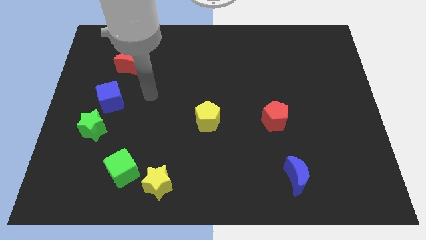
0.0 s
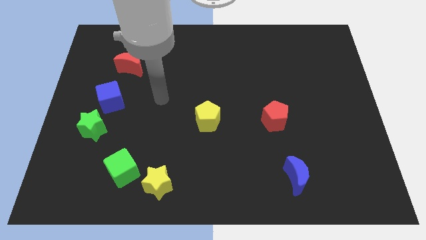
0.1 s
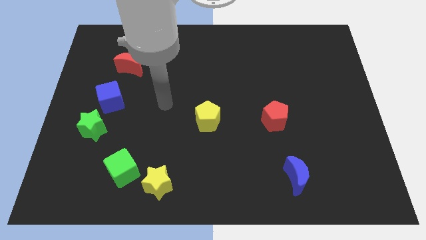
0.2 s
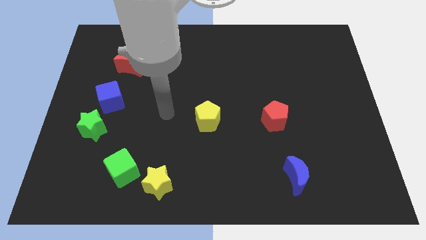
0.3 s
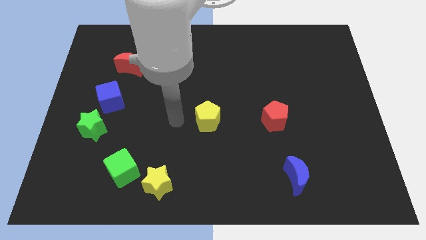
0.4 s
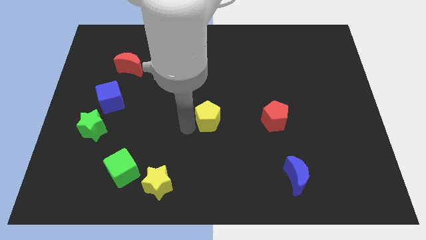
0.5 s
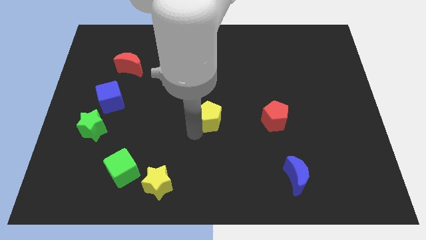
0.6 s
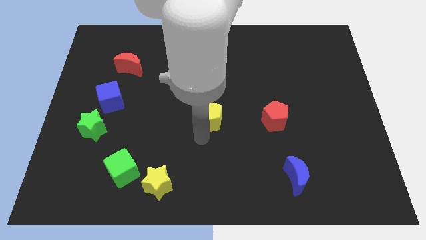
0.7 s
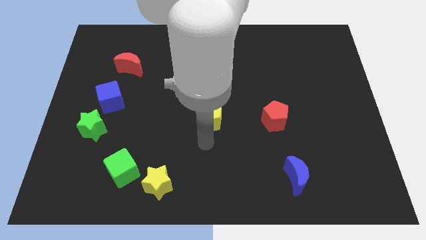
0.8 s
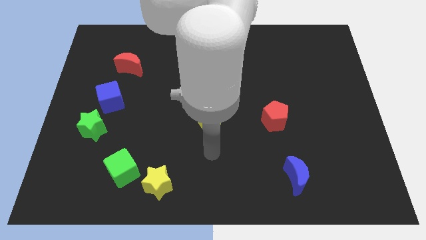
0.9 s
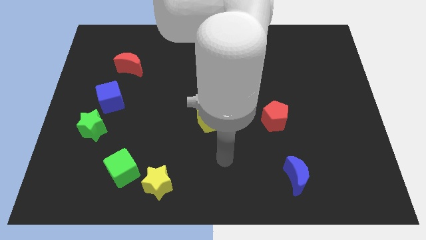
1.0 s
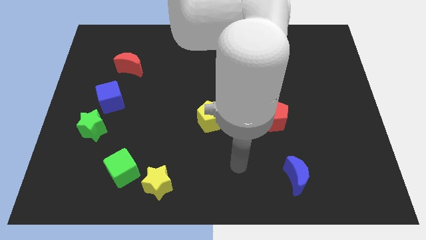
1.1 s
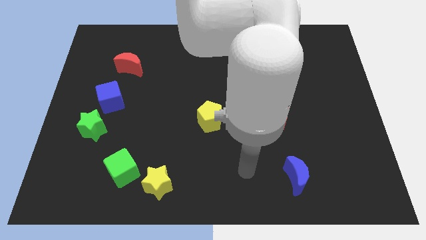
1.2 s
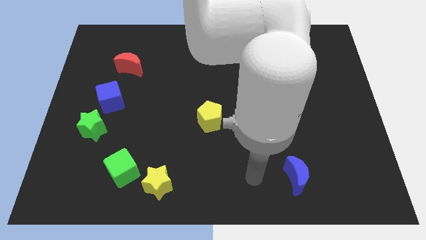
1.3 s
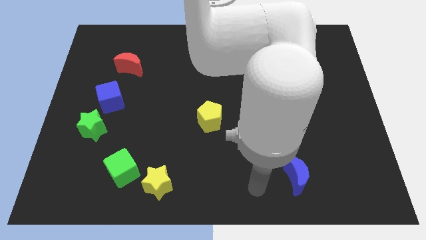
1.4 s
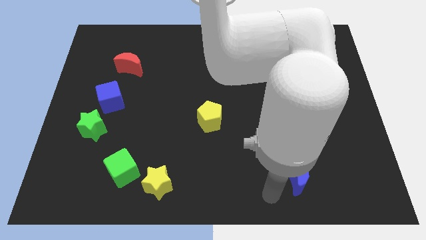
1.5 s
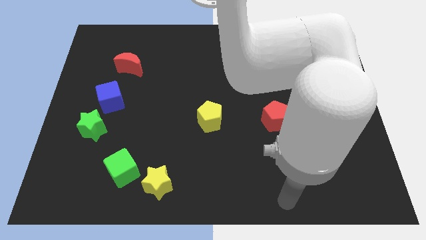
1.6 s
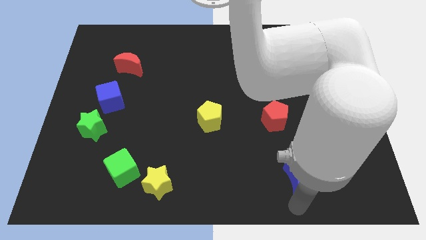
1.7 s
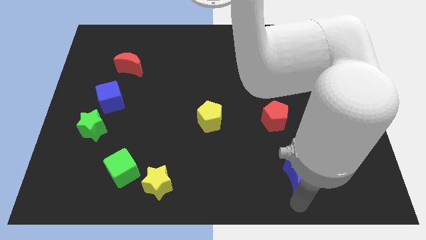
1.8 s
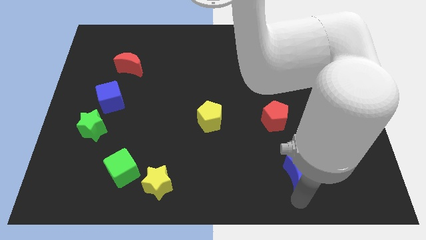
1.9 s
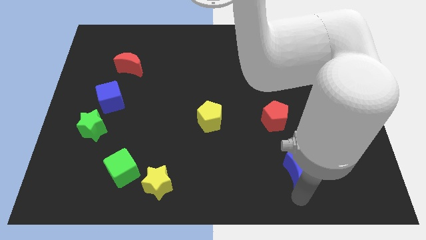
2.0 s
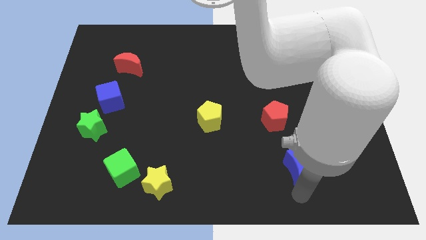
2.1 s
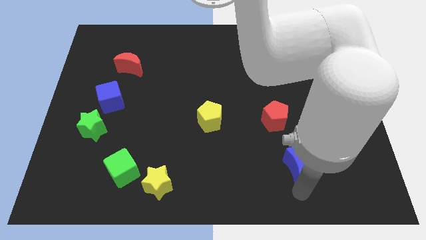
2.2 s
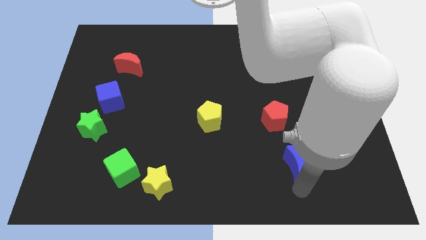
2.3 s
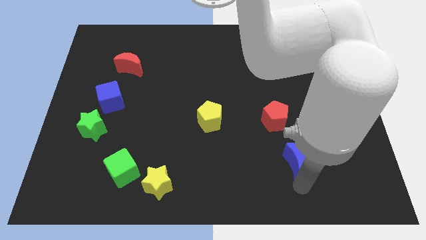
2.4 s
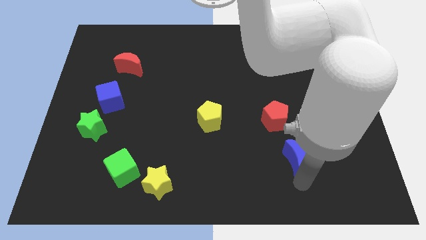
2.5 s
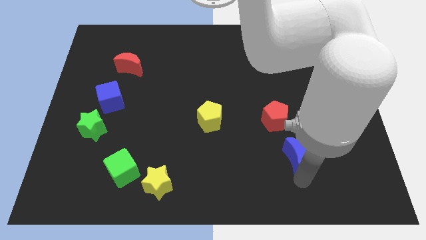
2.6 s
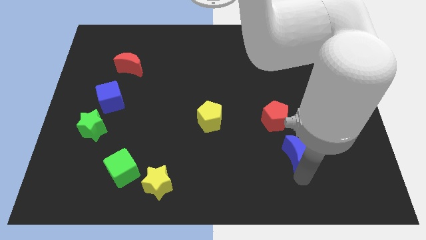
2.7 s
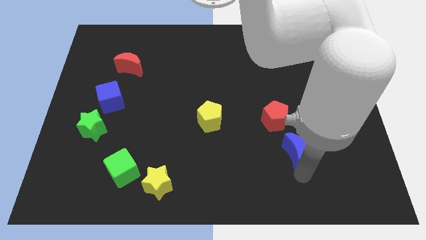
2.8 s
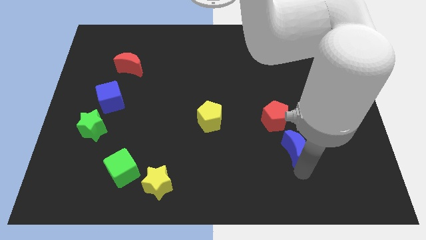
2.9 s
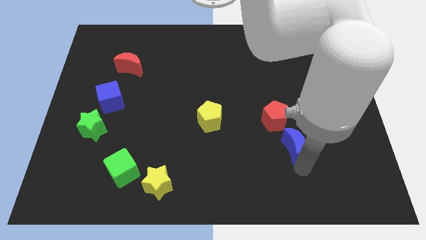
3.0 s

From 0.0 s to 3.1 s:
push the blue moon upwards somewhat

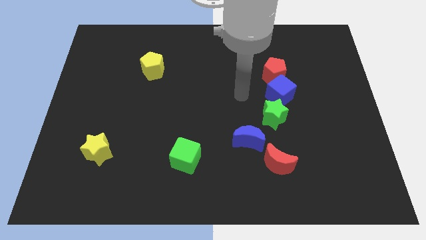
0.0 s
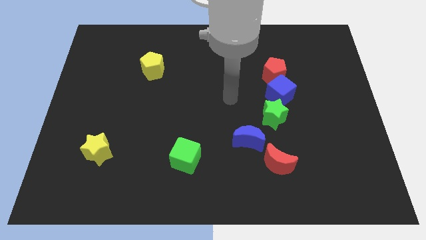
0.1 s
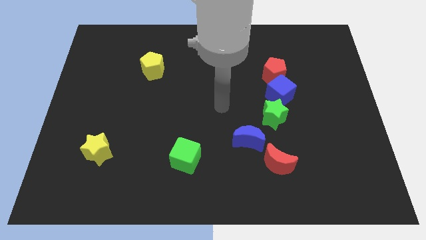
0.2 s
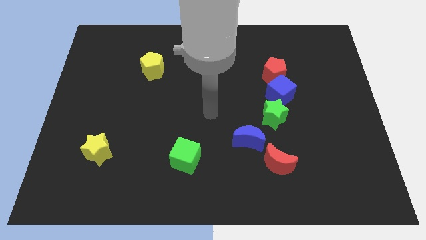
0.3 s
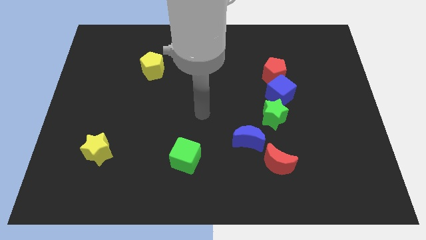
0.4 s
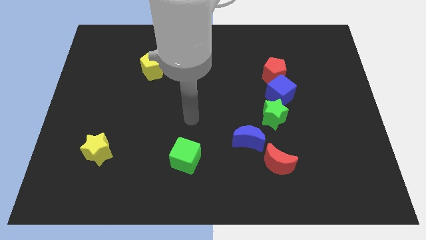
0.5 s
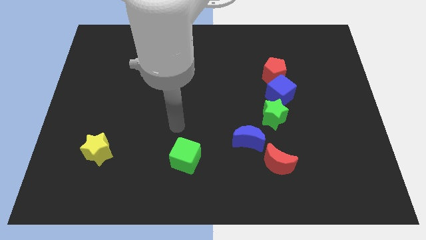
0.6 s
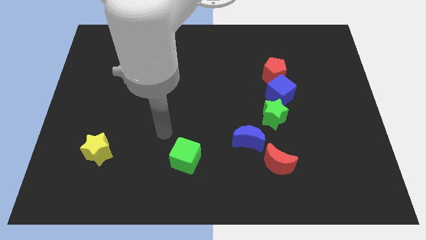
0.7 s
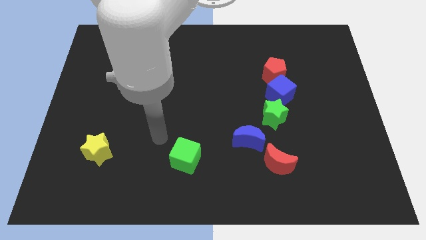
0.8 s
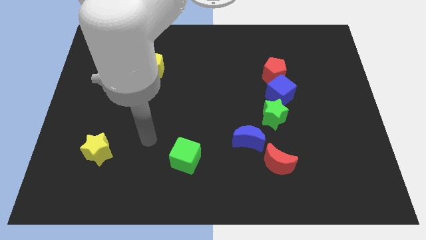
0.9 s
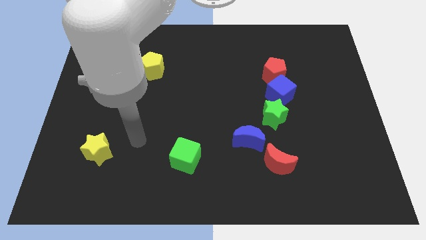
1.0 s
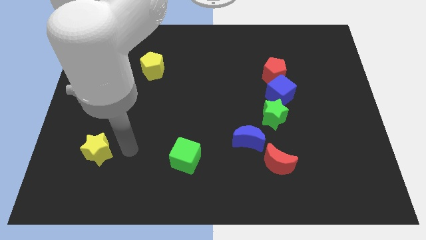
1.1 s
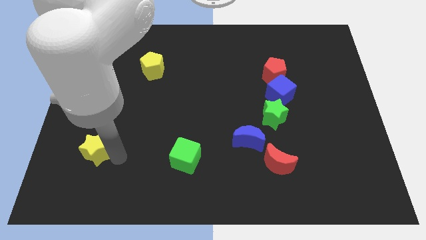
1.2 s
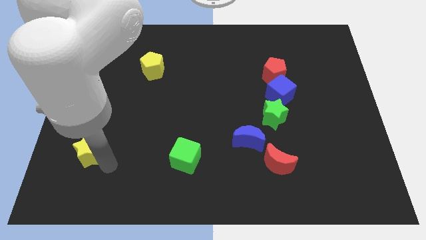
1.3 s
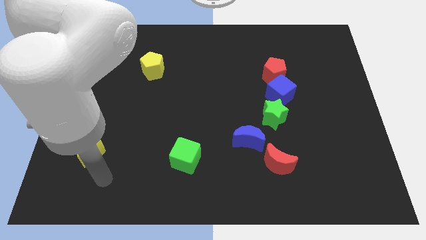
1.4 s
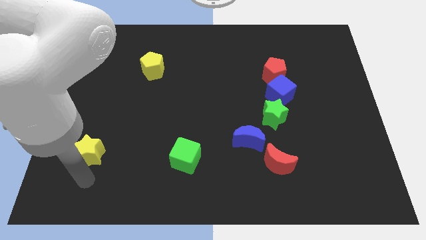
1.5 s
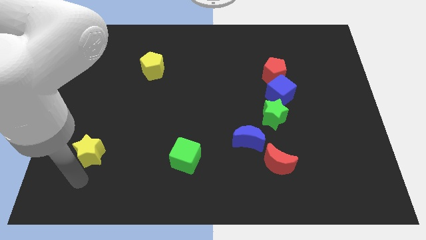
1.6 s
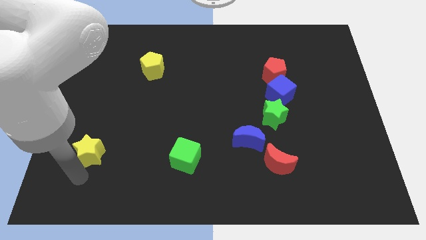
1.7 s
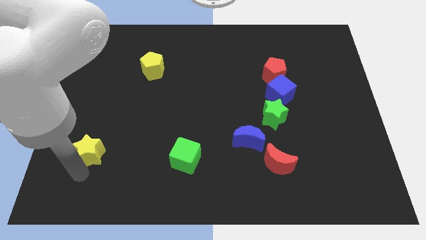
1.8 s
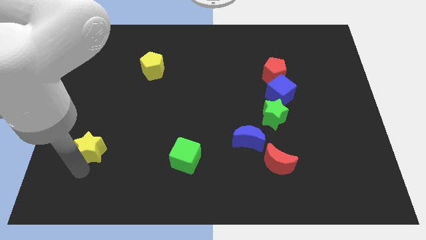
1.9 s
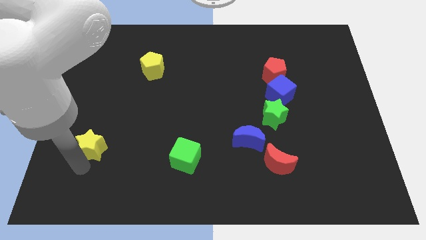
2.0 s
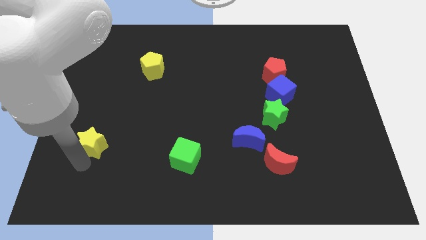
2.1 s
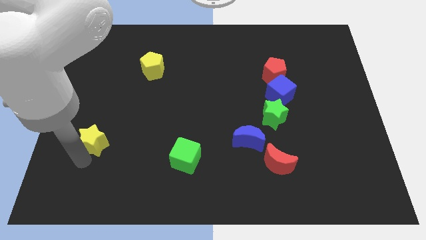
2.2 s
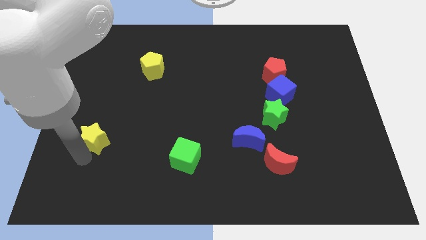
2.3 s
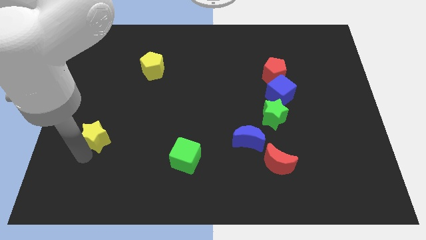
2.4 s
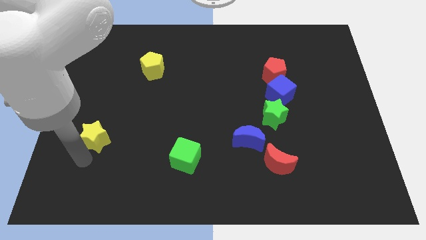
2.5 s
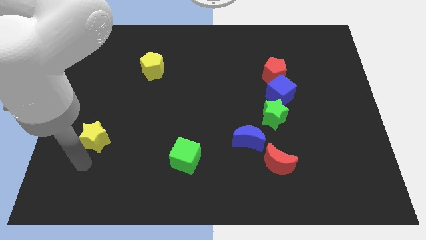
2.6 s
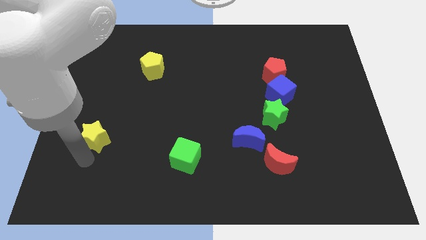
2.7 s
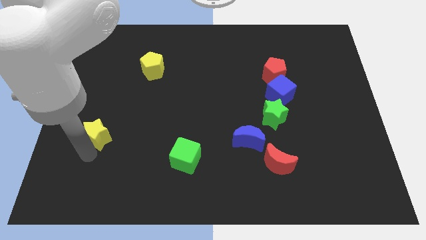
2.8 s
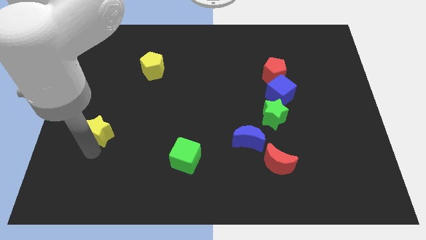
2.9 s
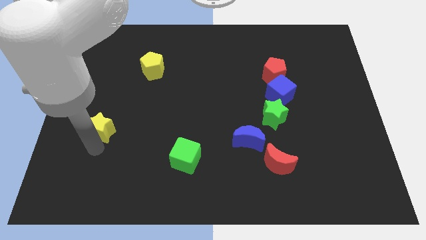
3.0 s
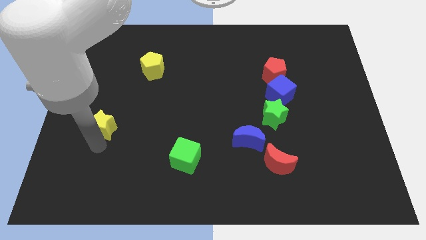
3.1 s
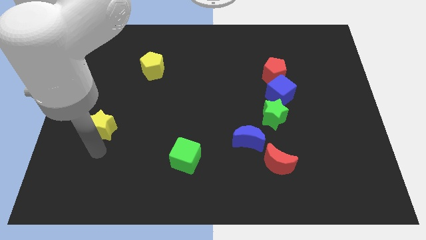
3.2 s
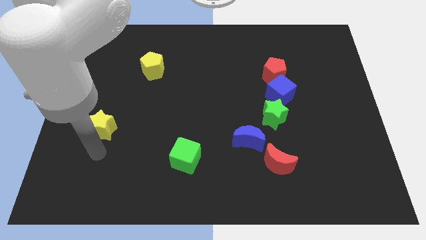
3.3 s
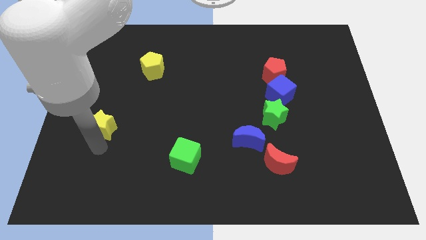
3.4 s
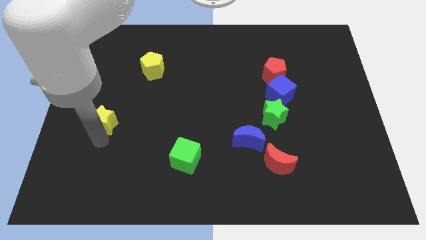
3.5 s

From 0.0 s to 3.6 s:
slightly slide the yellow star upwards

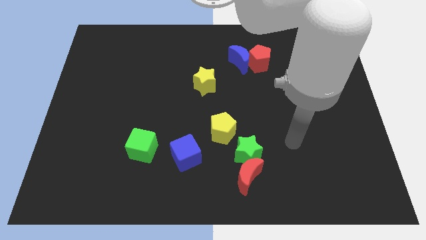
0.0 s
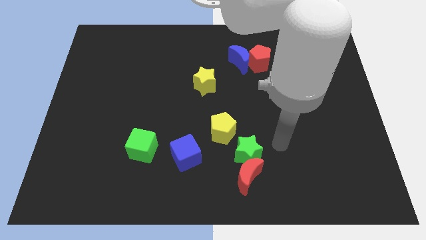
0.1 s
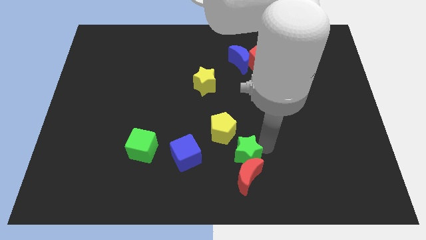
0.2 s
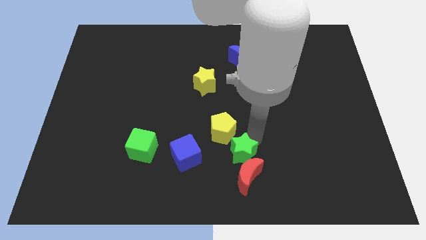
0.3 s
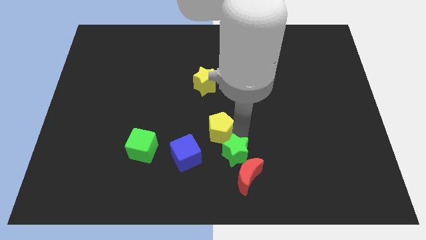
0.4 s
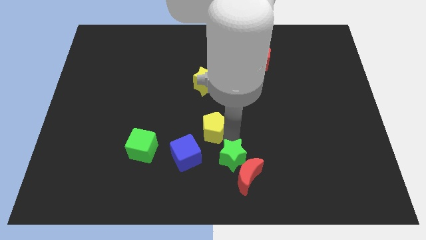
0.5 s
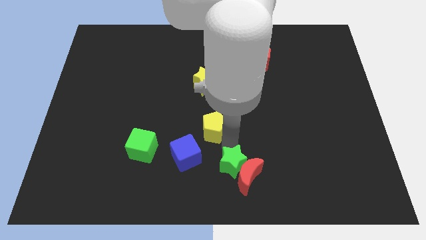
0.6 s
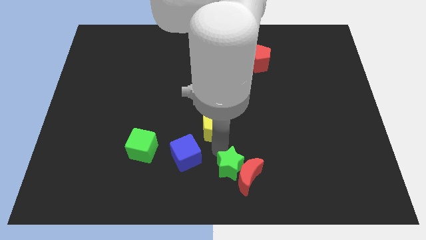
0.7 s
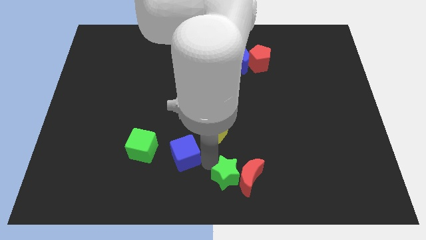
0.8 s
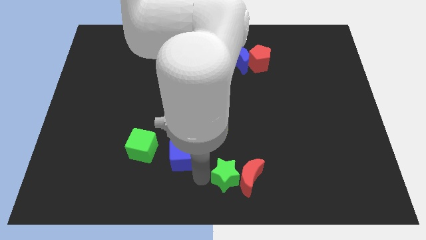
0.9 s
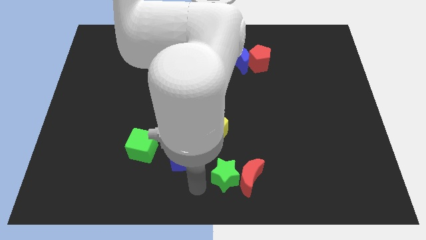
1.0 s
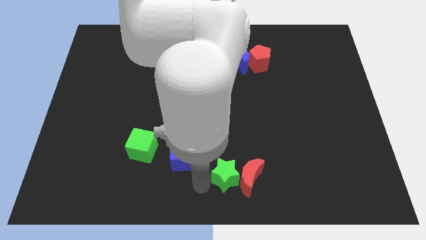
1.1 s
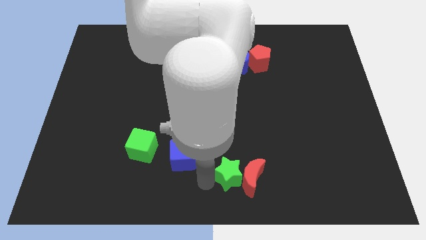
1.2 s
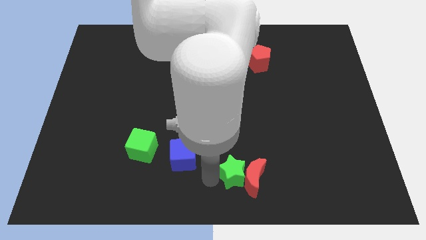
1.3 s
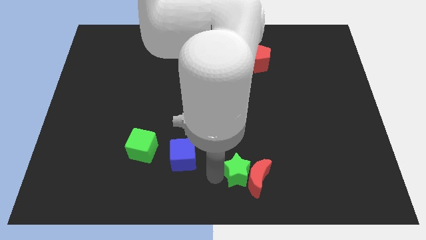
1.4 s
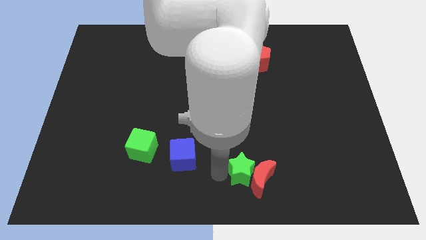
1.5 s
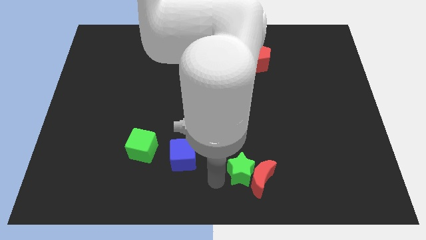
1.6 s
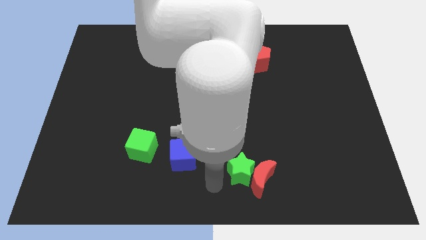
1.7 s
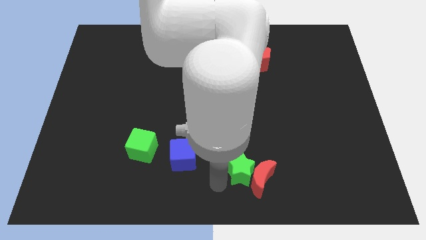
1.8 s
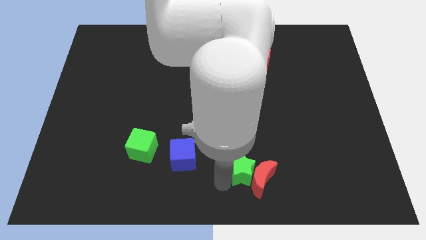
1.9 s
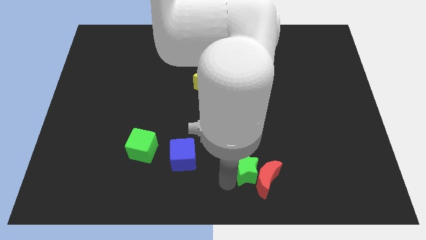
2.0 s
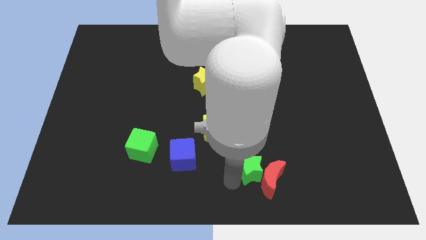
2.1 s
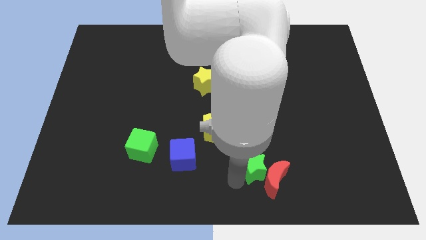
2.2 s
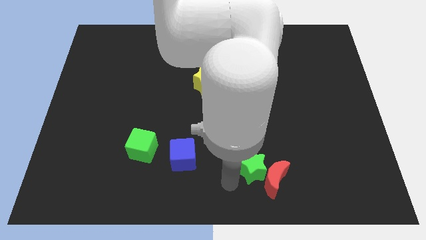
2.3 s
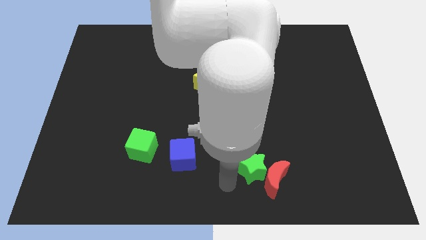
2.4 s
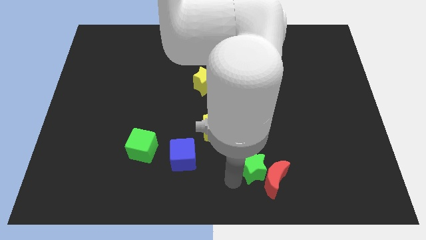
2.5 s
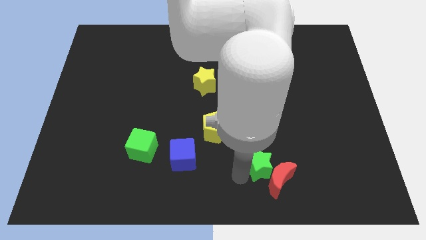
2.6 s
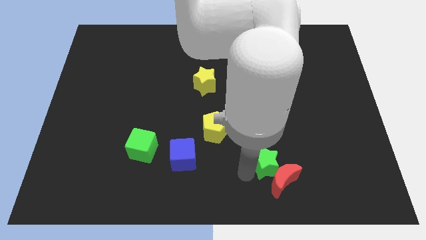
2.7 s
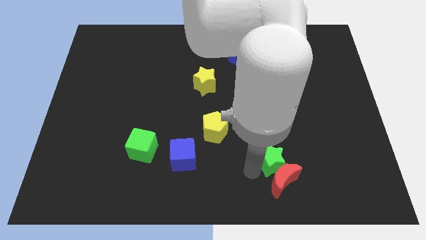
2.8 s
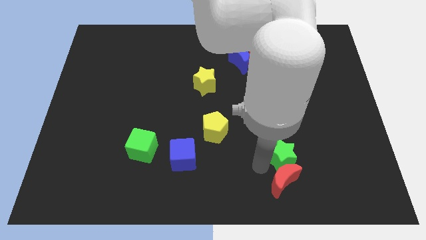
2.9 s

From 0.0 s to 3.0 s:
slide the green star a little bit to the right
